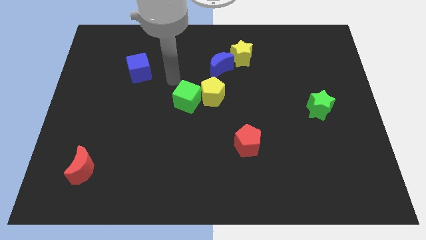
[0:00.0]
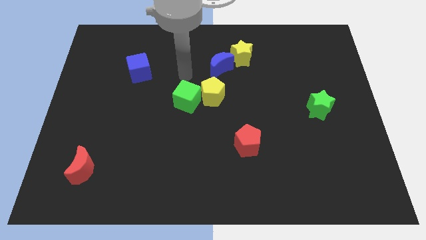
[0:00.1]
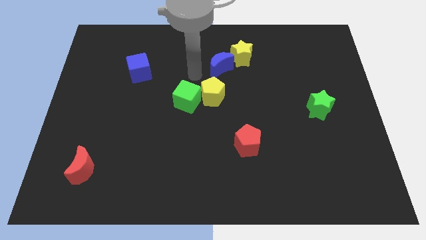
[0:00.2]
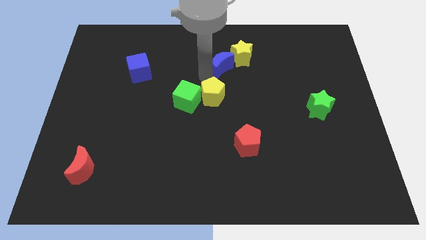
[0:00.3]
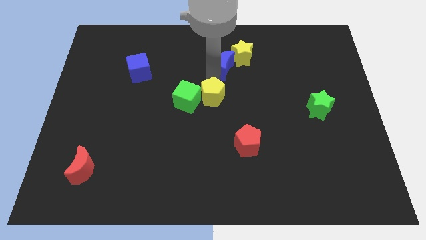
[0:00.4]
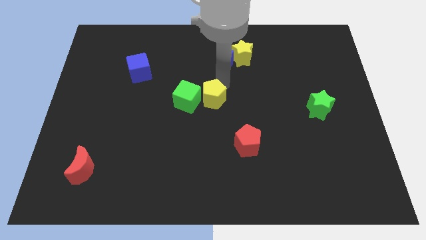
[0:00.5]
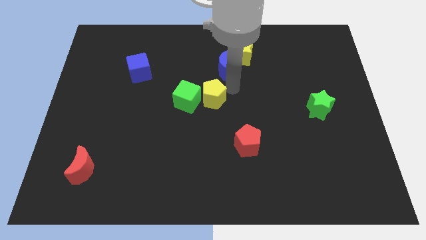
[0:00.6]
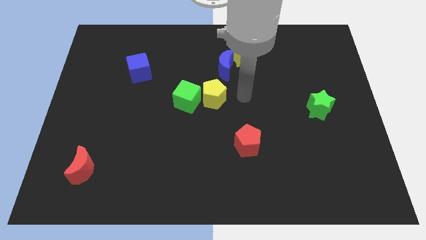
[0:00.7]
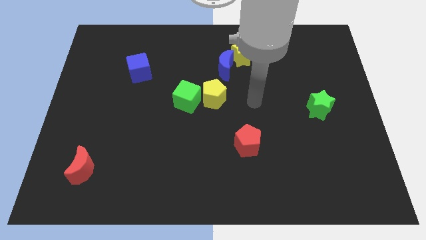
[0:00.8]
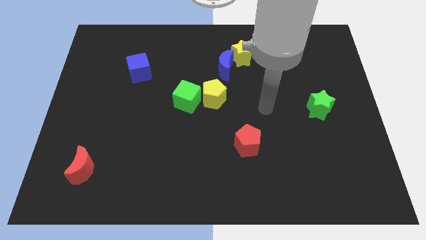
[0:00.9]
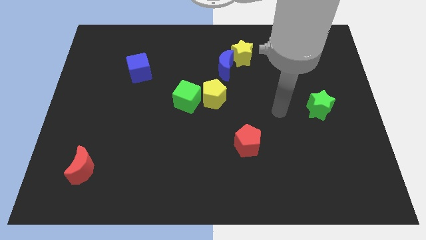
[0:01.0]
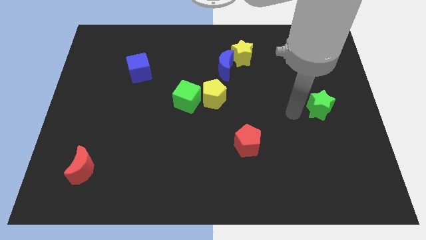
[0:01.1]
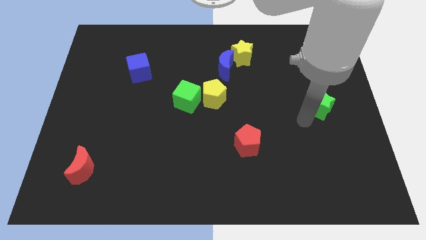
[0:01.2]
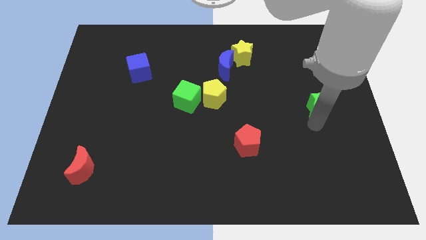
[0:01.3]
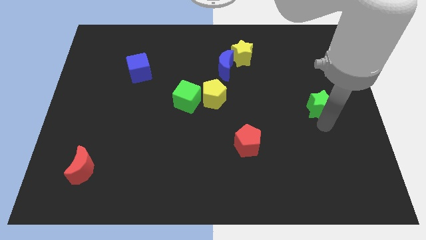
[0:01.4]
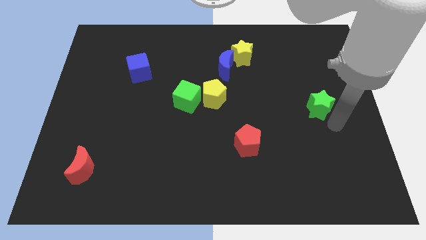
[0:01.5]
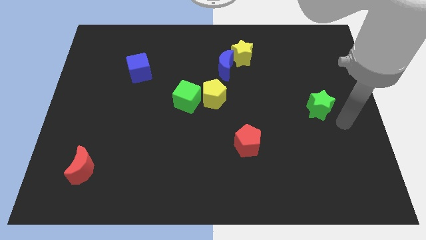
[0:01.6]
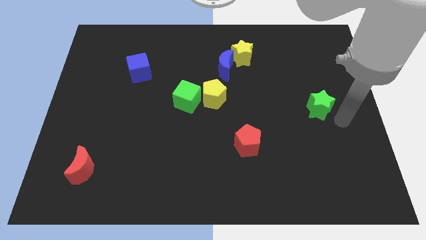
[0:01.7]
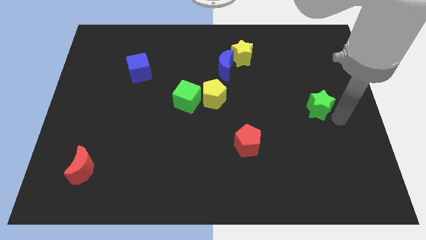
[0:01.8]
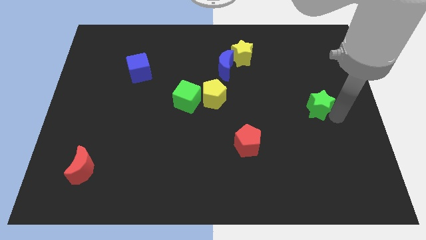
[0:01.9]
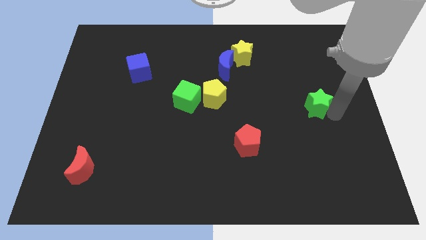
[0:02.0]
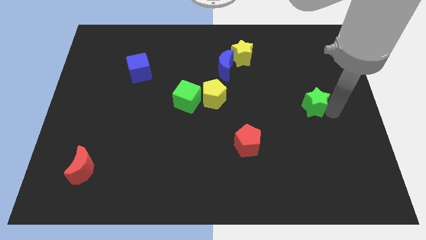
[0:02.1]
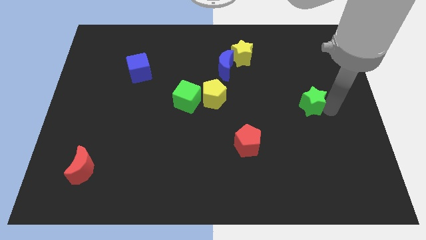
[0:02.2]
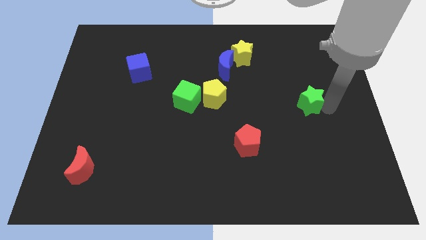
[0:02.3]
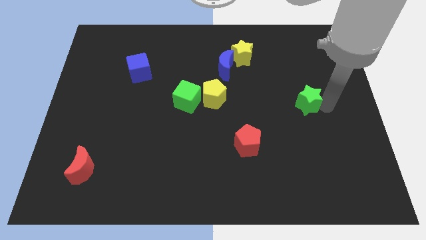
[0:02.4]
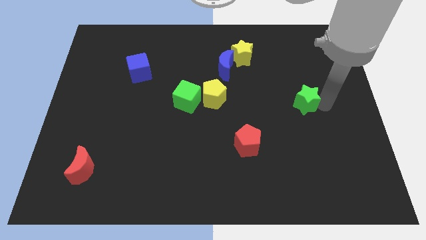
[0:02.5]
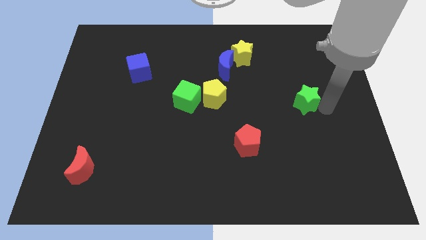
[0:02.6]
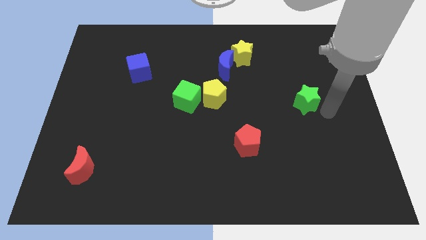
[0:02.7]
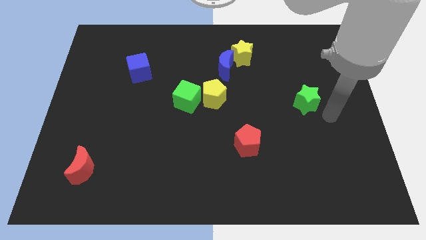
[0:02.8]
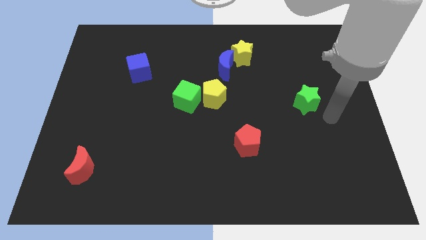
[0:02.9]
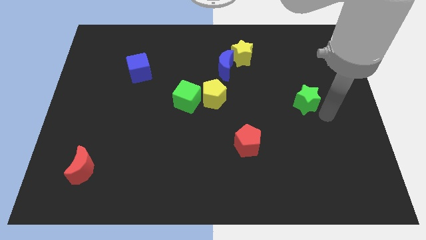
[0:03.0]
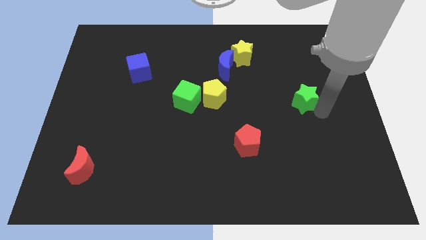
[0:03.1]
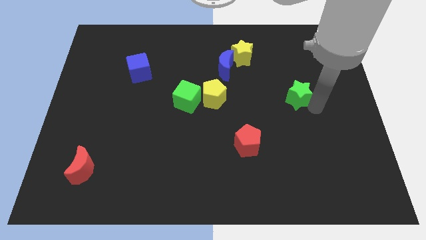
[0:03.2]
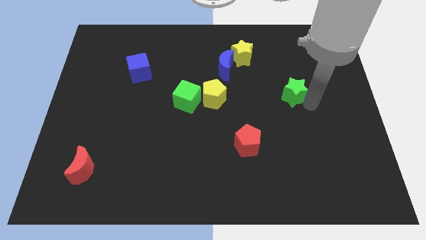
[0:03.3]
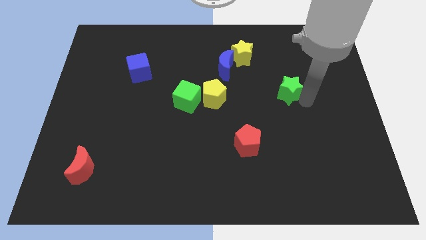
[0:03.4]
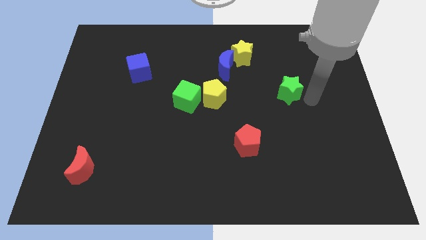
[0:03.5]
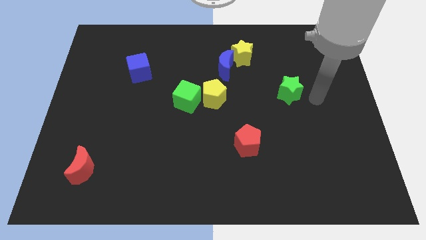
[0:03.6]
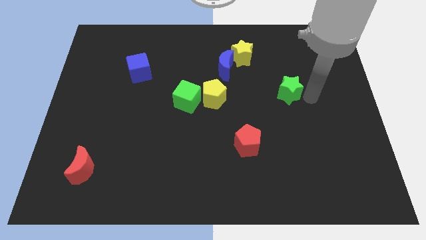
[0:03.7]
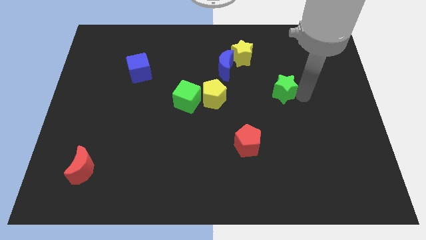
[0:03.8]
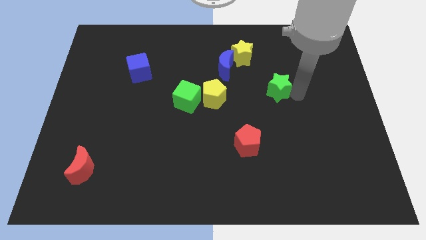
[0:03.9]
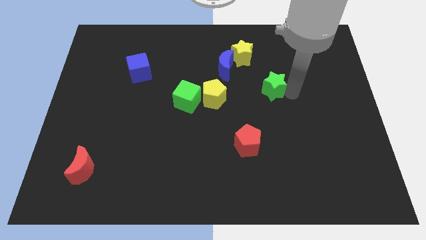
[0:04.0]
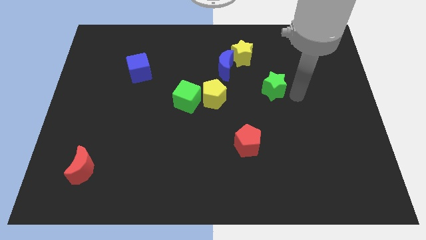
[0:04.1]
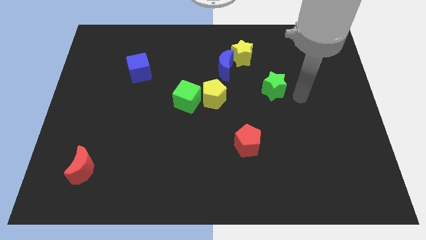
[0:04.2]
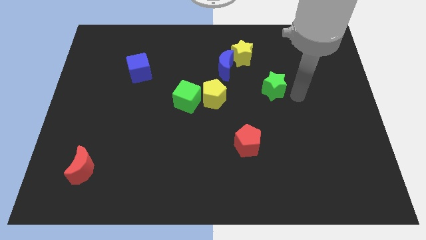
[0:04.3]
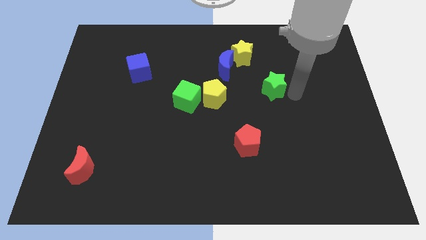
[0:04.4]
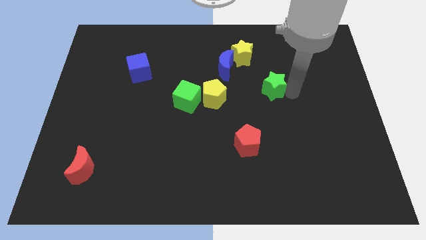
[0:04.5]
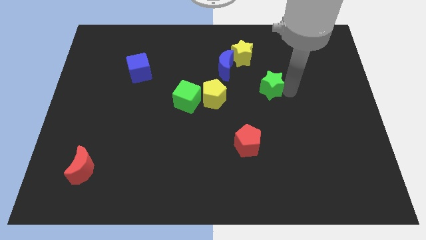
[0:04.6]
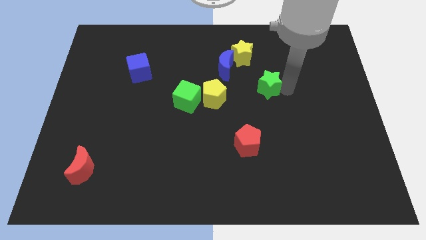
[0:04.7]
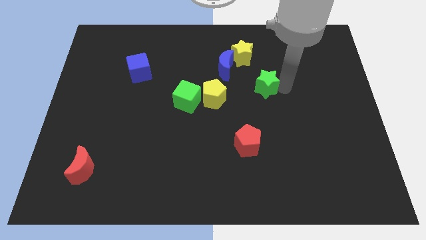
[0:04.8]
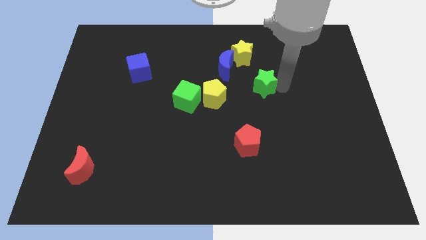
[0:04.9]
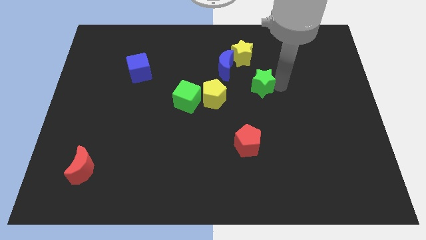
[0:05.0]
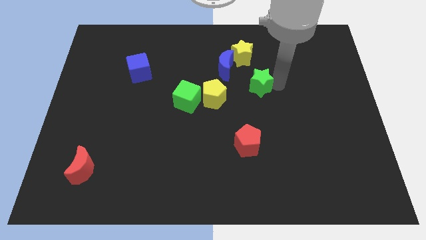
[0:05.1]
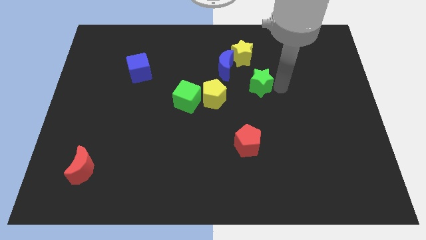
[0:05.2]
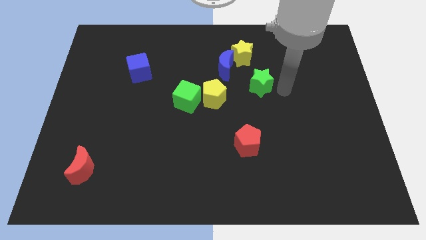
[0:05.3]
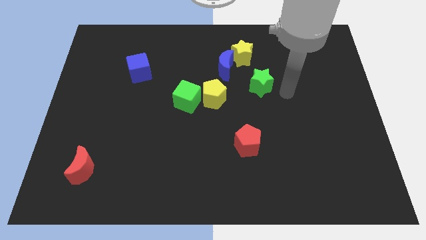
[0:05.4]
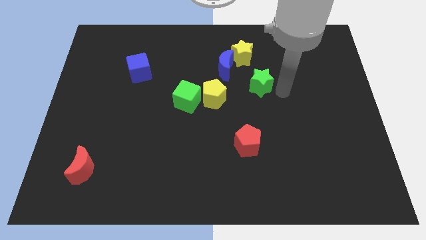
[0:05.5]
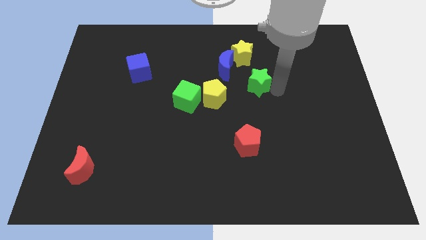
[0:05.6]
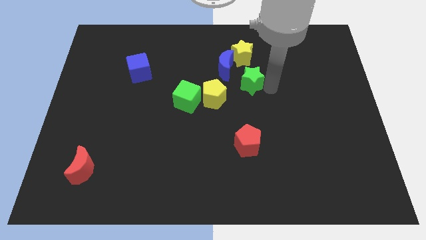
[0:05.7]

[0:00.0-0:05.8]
move the green star to the top right of the yellow pentagon

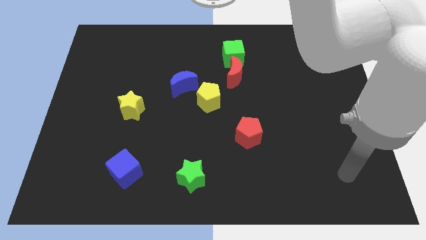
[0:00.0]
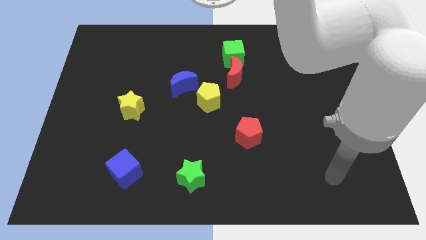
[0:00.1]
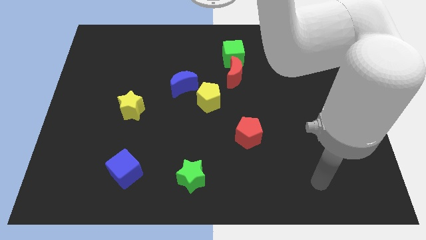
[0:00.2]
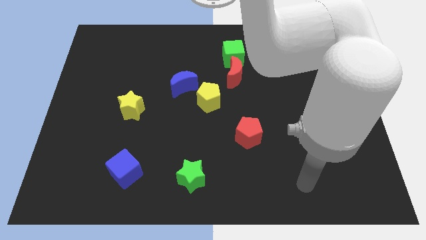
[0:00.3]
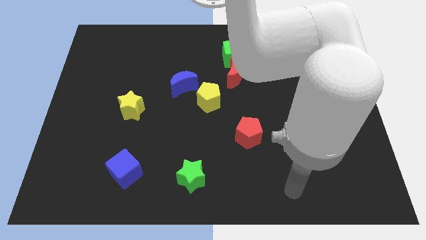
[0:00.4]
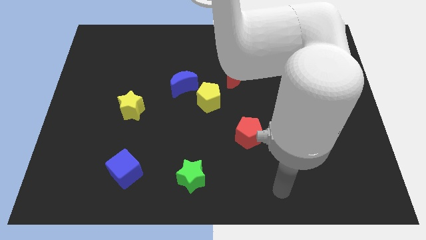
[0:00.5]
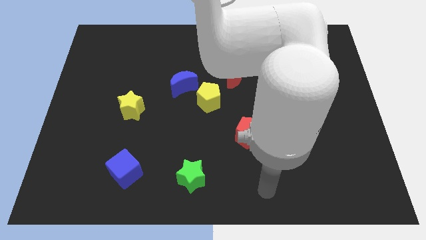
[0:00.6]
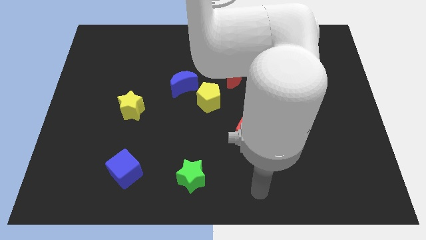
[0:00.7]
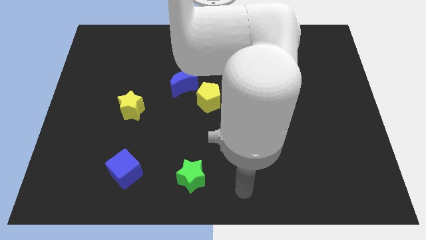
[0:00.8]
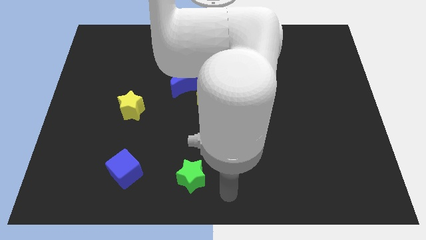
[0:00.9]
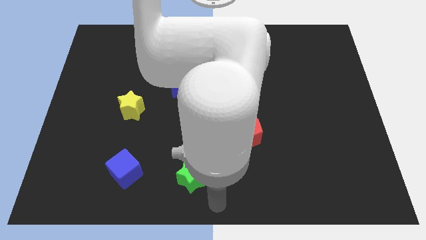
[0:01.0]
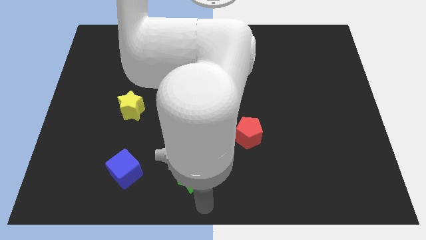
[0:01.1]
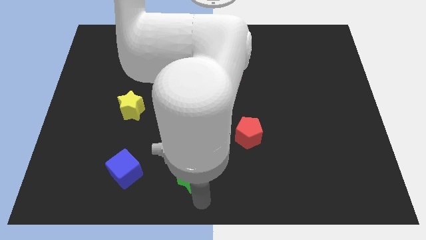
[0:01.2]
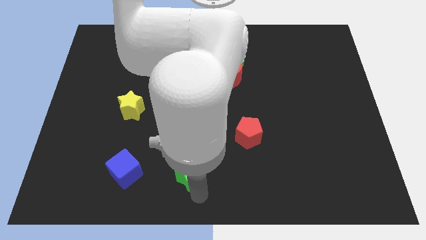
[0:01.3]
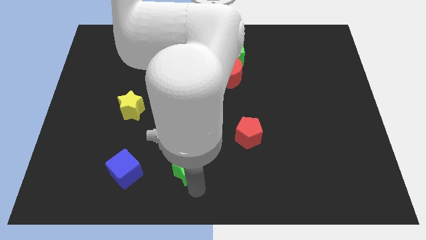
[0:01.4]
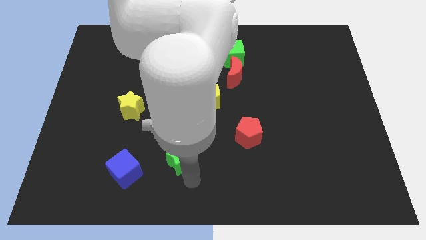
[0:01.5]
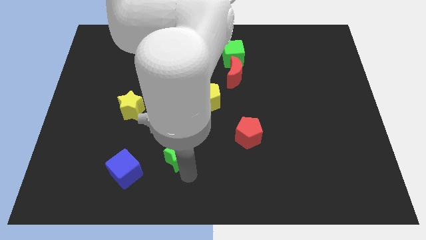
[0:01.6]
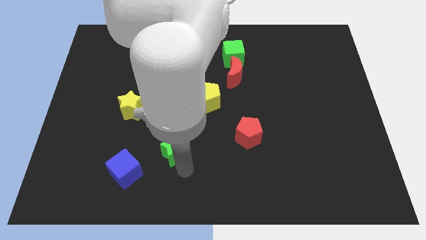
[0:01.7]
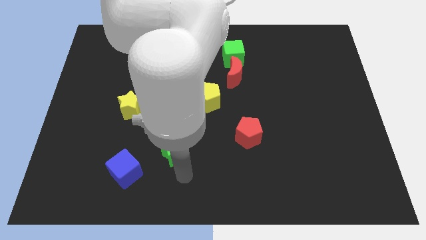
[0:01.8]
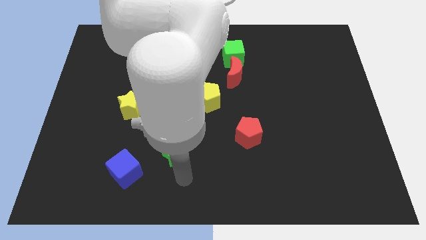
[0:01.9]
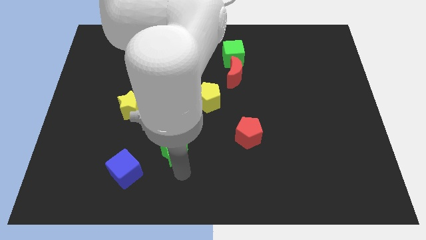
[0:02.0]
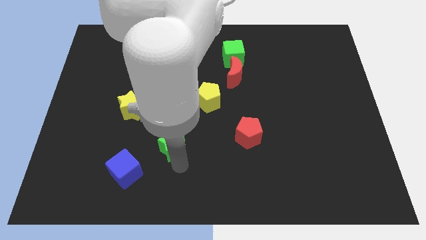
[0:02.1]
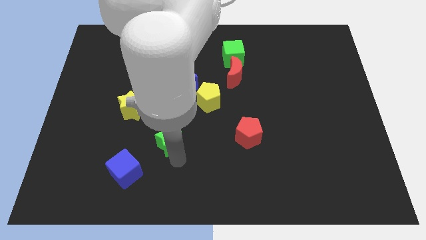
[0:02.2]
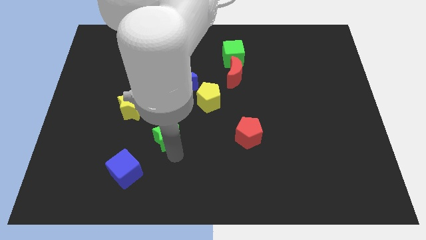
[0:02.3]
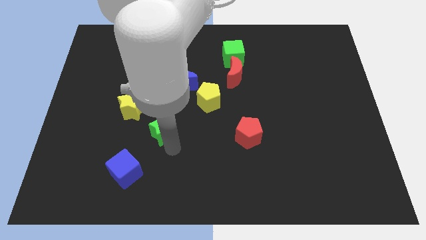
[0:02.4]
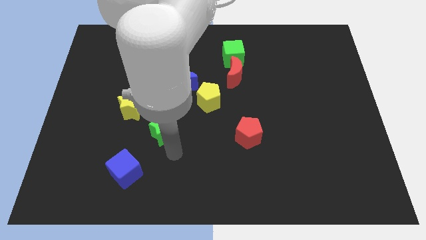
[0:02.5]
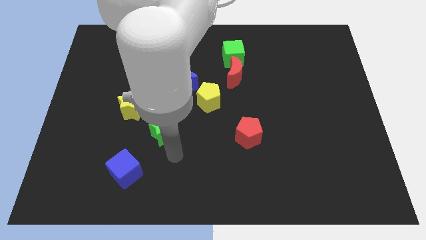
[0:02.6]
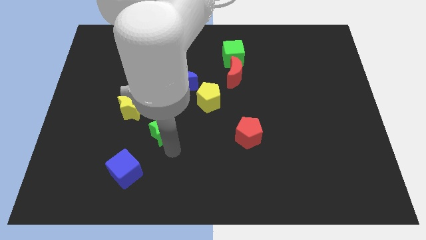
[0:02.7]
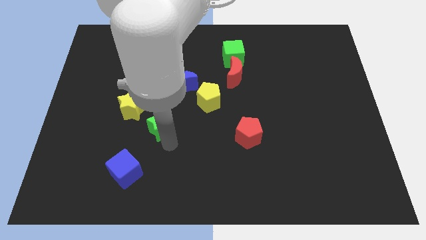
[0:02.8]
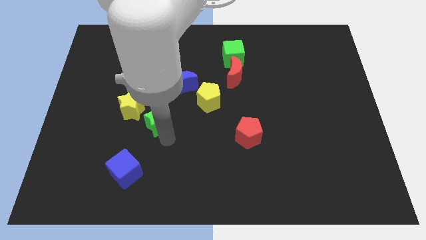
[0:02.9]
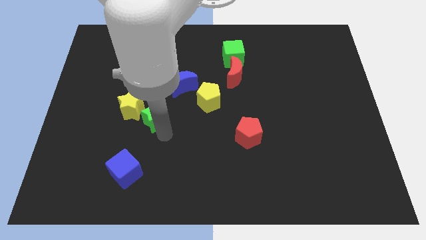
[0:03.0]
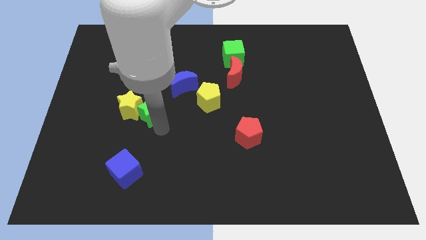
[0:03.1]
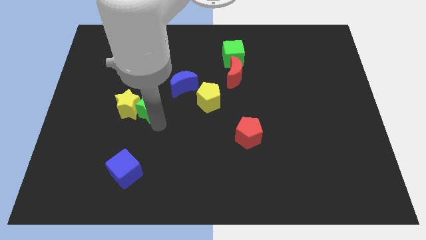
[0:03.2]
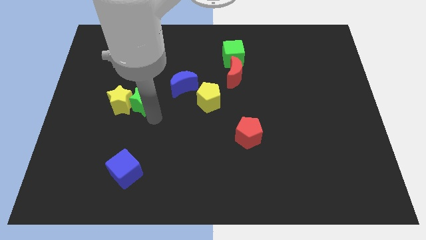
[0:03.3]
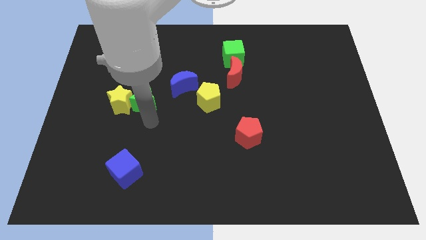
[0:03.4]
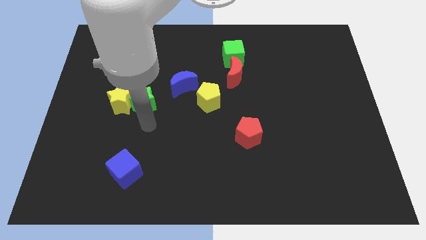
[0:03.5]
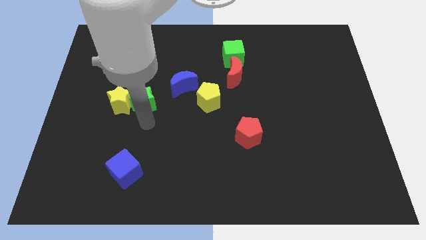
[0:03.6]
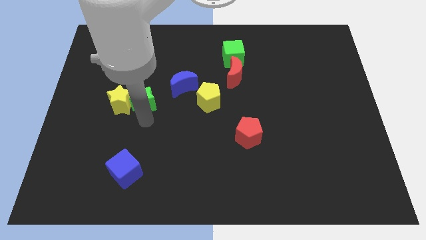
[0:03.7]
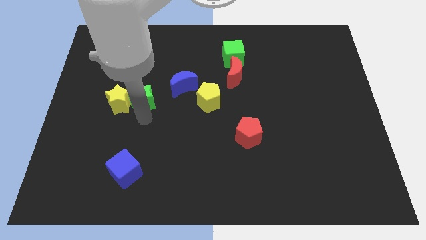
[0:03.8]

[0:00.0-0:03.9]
push the green star to the left of the blue moon
